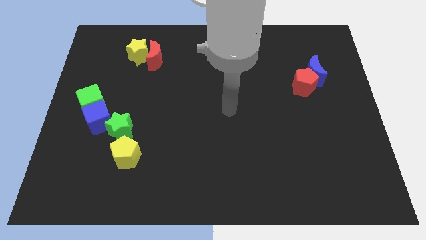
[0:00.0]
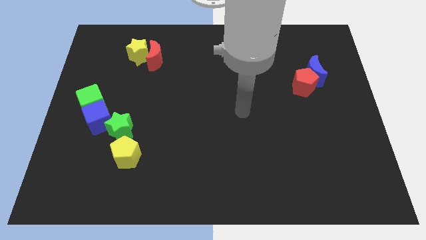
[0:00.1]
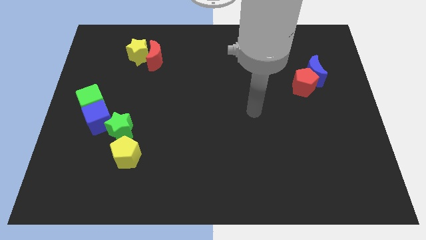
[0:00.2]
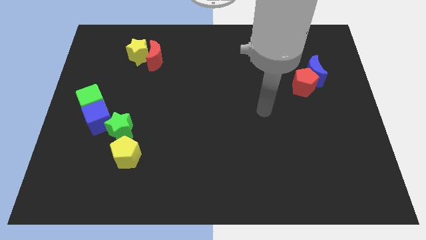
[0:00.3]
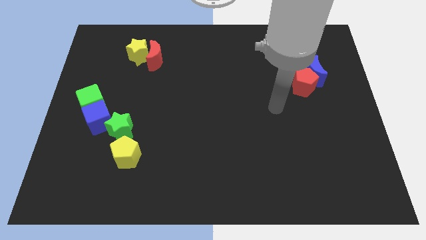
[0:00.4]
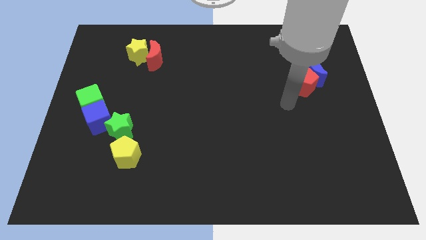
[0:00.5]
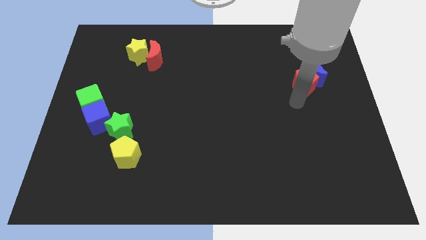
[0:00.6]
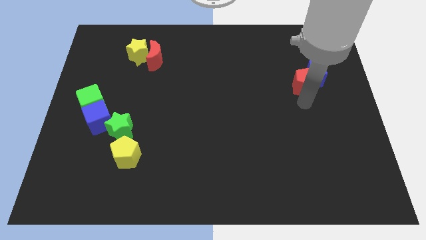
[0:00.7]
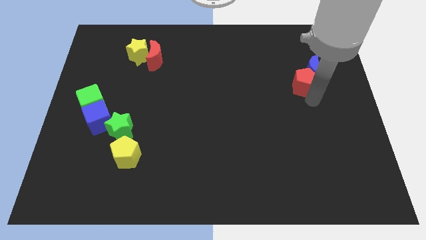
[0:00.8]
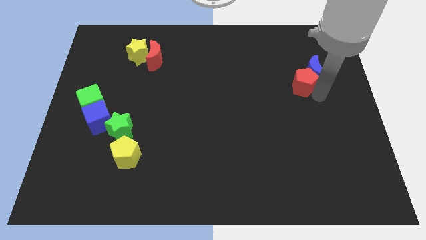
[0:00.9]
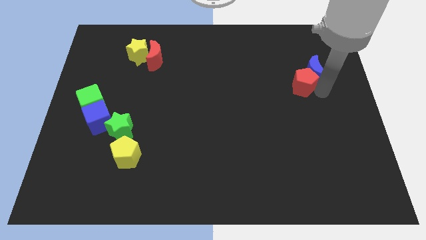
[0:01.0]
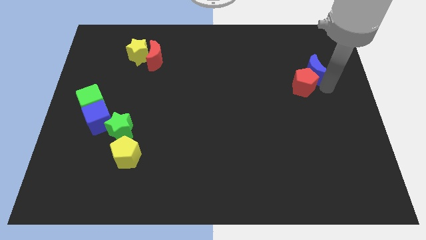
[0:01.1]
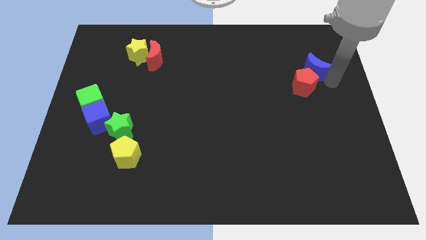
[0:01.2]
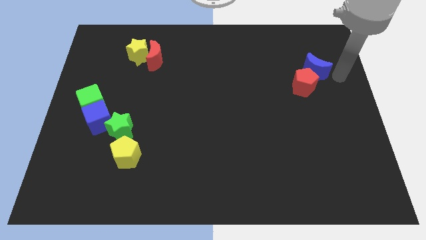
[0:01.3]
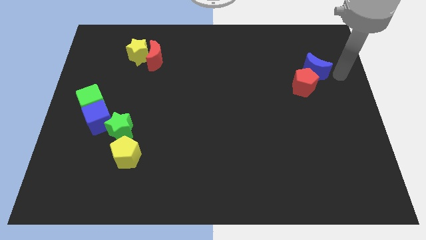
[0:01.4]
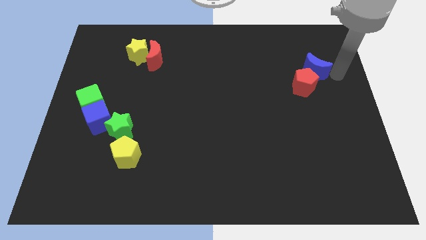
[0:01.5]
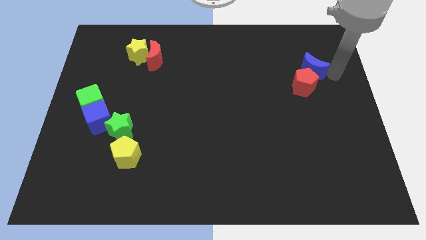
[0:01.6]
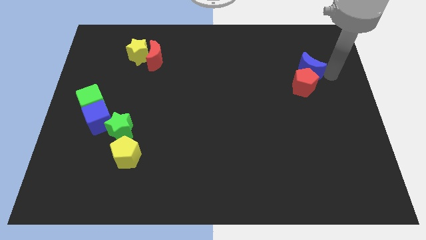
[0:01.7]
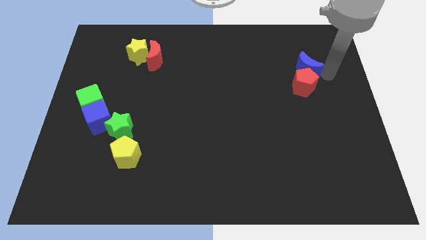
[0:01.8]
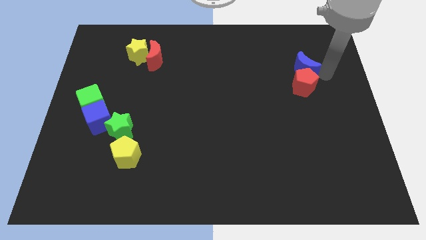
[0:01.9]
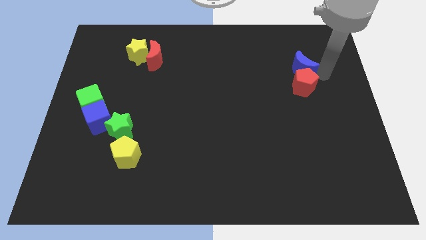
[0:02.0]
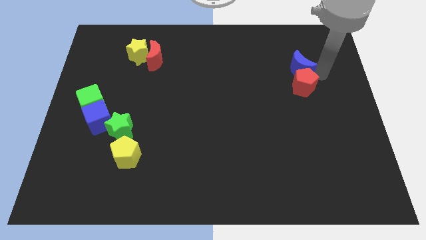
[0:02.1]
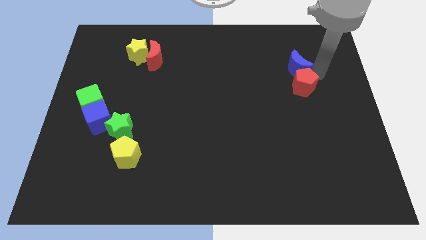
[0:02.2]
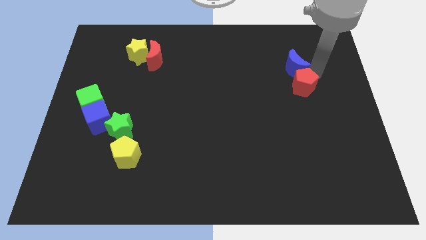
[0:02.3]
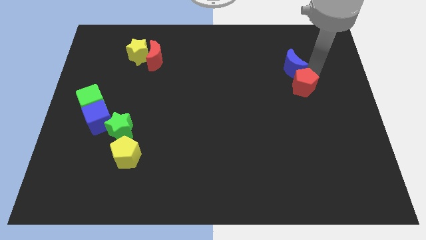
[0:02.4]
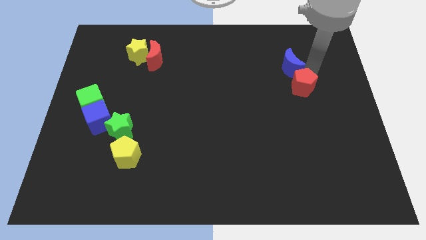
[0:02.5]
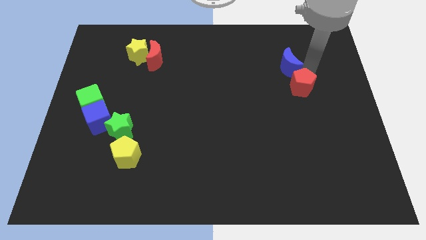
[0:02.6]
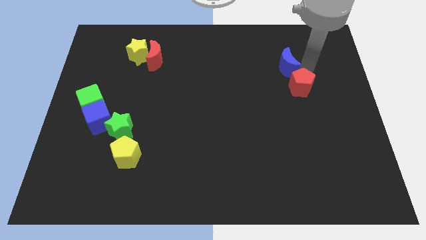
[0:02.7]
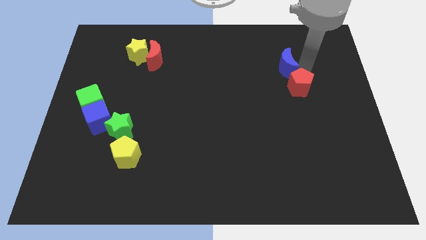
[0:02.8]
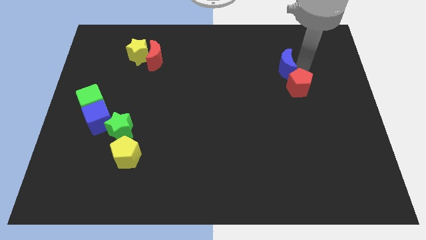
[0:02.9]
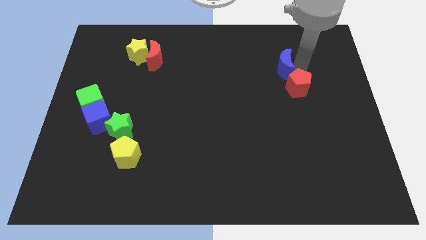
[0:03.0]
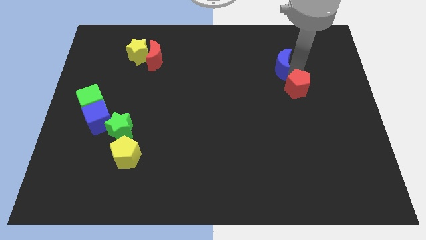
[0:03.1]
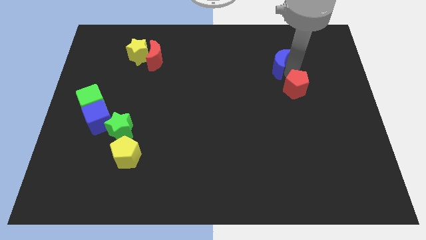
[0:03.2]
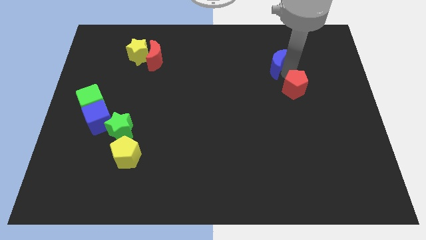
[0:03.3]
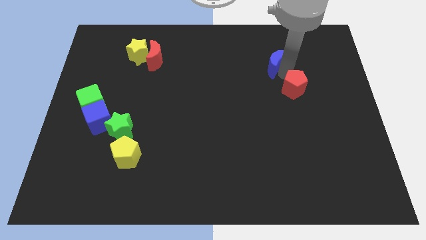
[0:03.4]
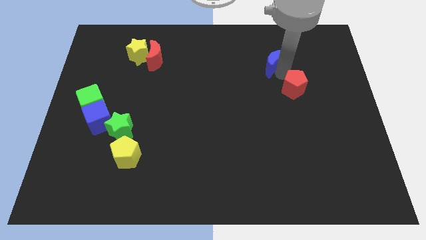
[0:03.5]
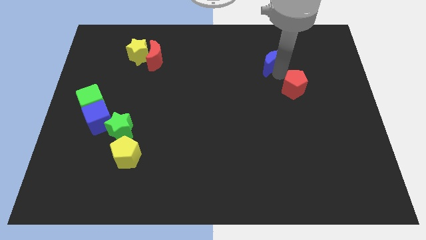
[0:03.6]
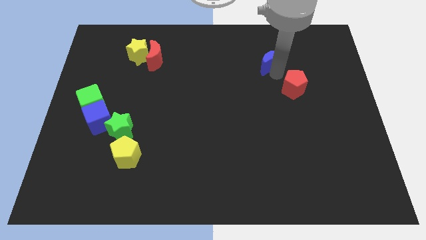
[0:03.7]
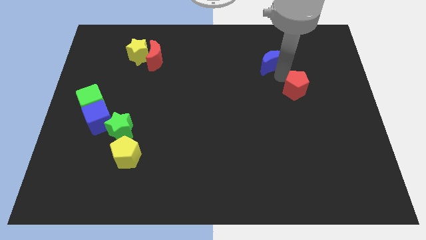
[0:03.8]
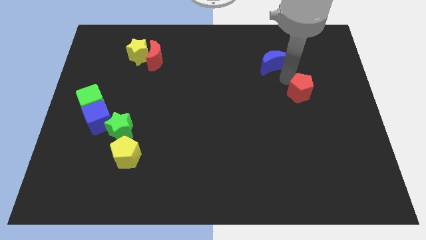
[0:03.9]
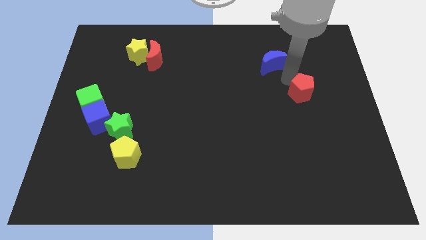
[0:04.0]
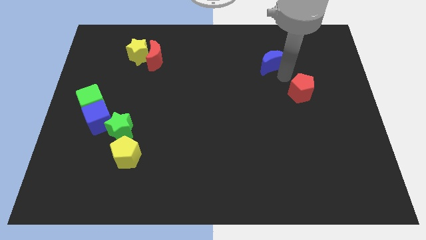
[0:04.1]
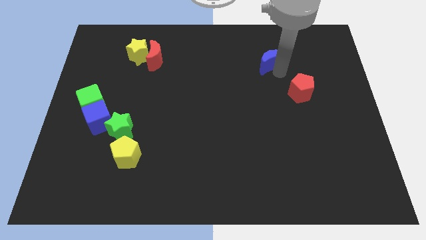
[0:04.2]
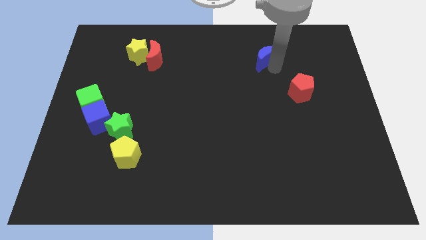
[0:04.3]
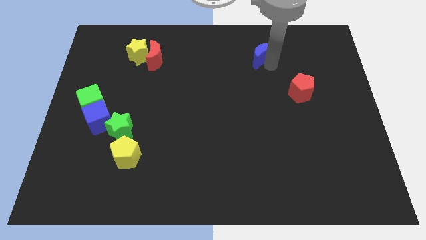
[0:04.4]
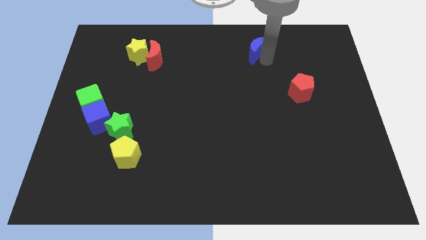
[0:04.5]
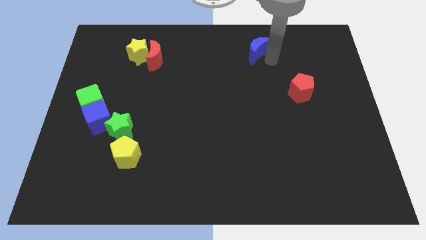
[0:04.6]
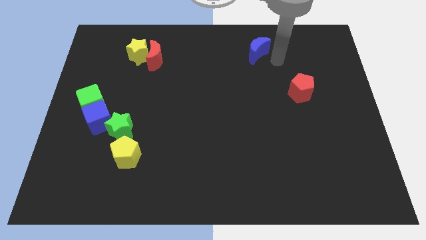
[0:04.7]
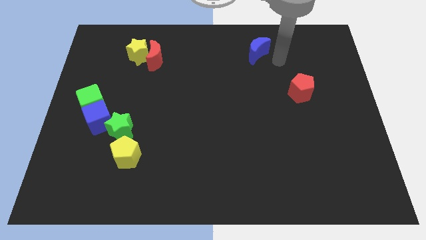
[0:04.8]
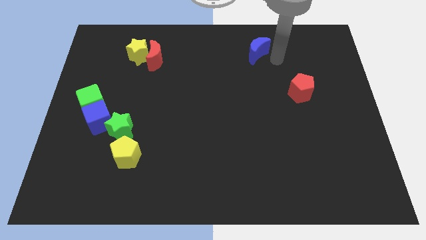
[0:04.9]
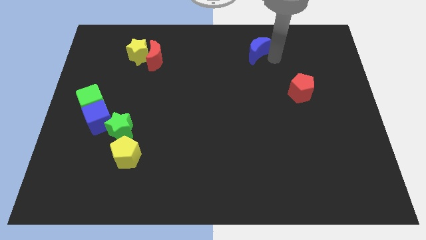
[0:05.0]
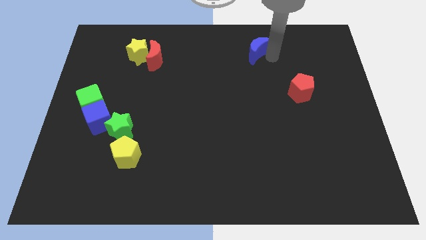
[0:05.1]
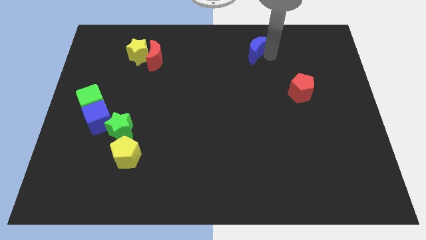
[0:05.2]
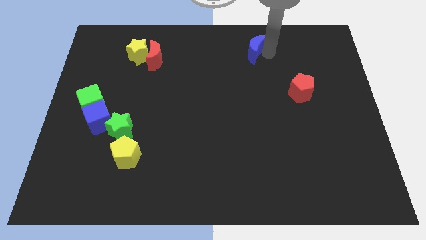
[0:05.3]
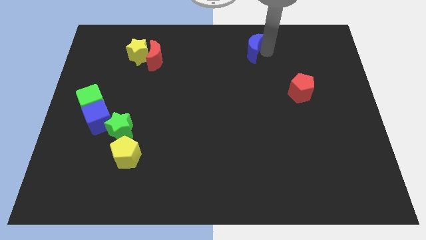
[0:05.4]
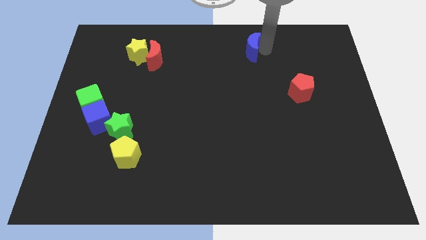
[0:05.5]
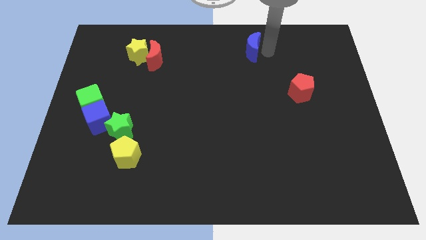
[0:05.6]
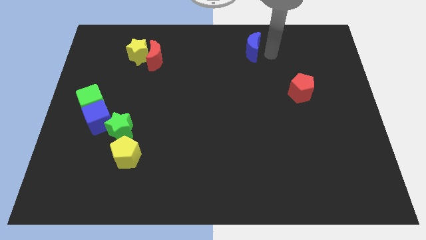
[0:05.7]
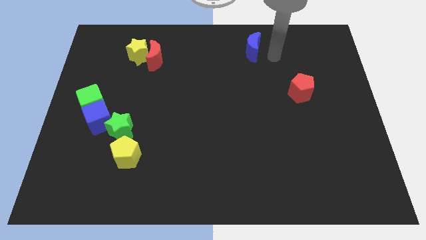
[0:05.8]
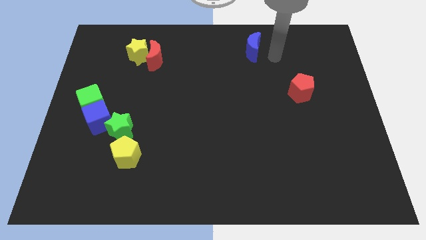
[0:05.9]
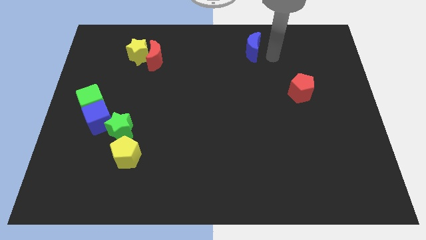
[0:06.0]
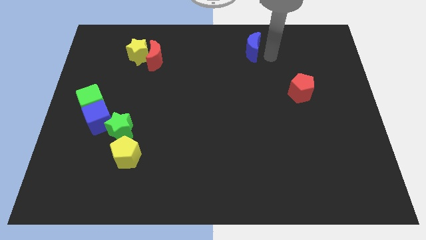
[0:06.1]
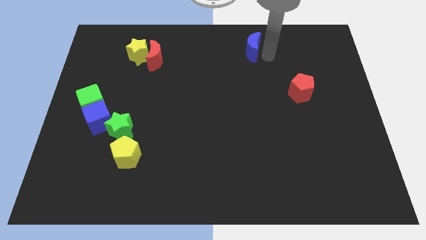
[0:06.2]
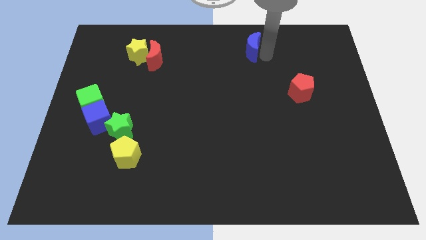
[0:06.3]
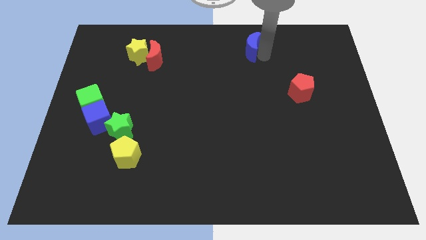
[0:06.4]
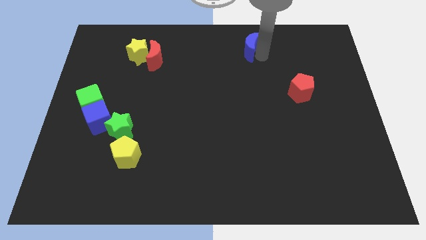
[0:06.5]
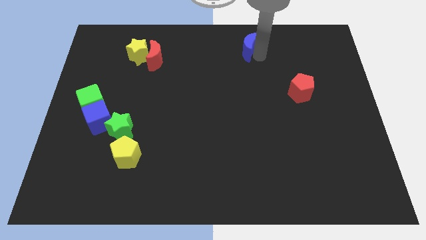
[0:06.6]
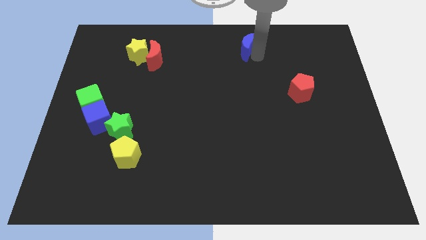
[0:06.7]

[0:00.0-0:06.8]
move the blue moon to the towards your base
